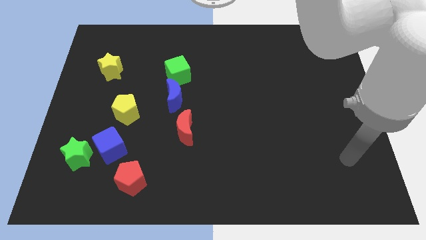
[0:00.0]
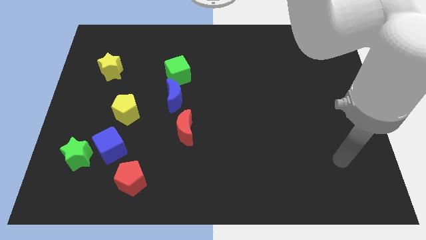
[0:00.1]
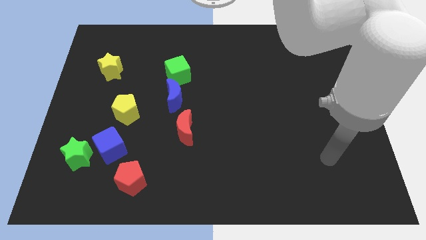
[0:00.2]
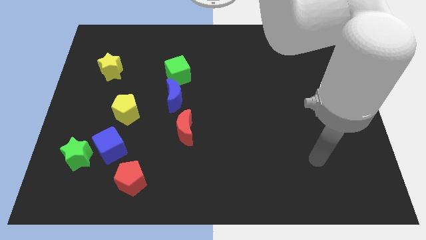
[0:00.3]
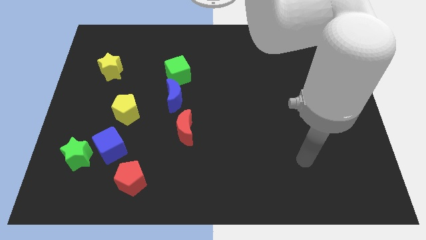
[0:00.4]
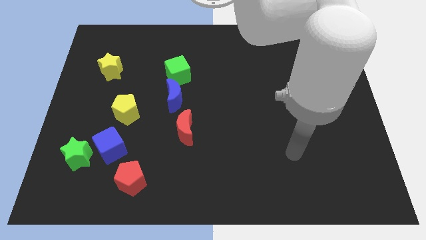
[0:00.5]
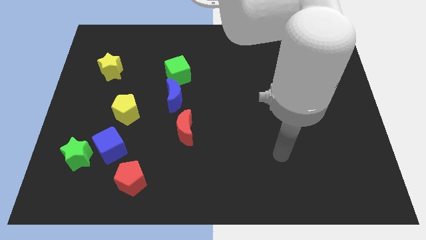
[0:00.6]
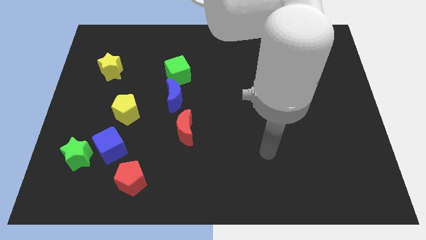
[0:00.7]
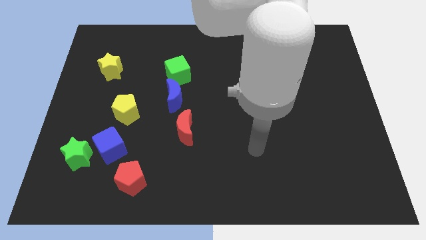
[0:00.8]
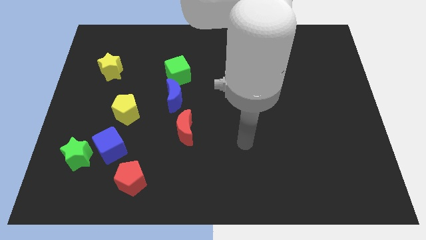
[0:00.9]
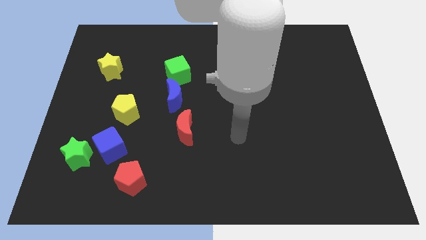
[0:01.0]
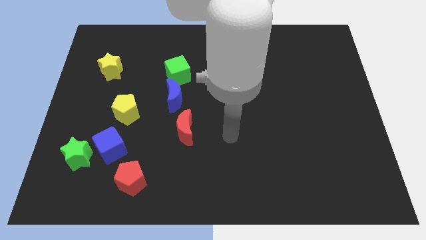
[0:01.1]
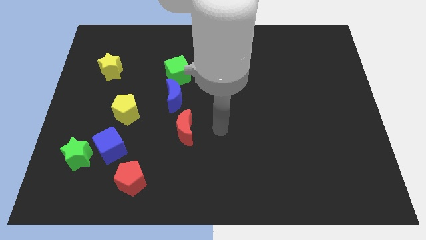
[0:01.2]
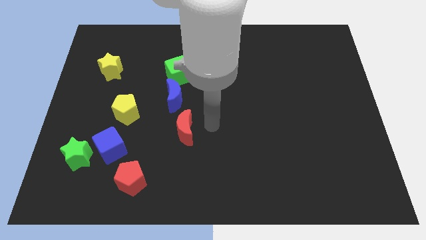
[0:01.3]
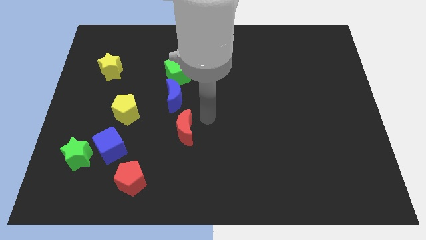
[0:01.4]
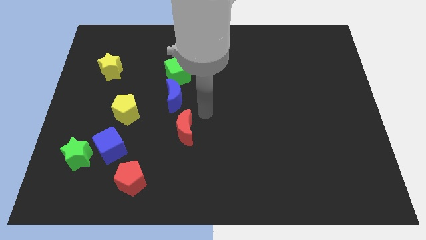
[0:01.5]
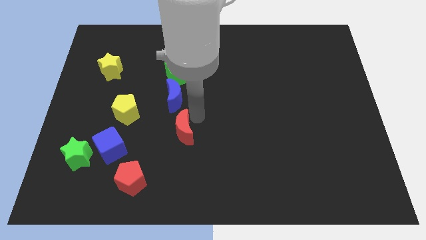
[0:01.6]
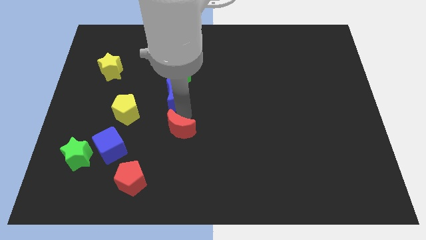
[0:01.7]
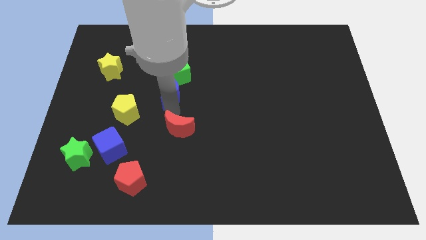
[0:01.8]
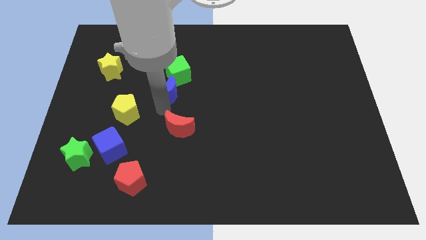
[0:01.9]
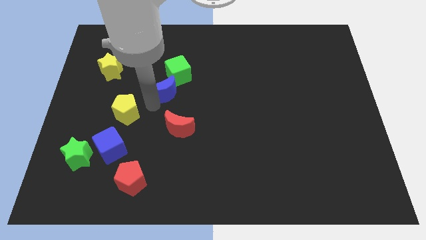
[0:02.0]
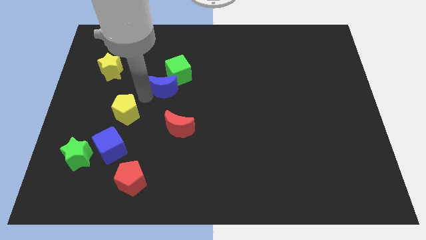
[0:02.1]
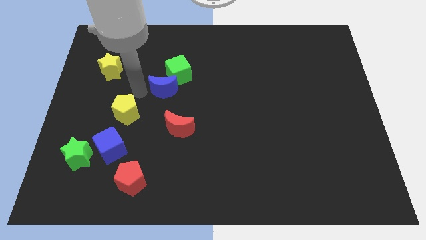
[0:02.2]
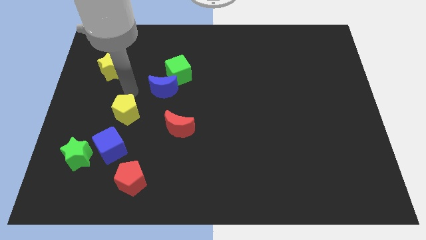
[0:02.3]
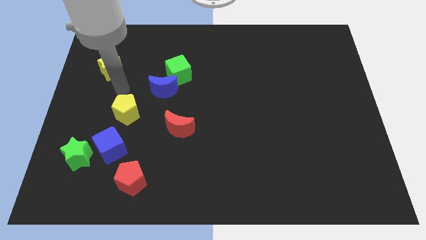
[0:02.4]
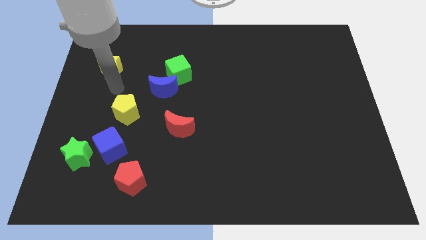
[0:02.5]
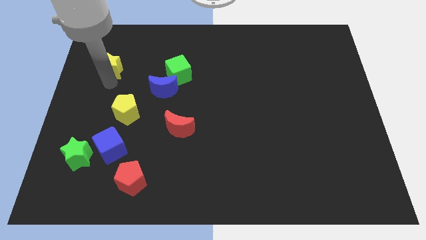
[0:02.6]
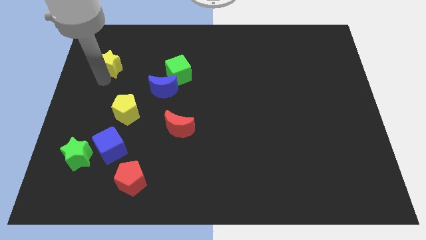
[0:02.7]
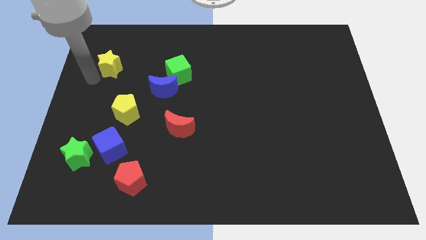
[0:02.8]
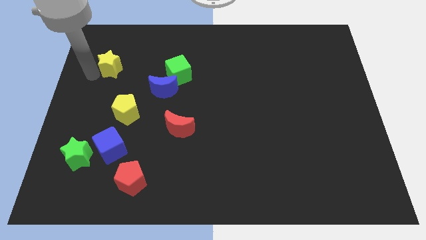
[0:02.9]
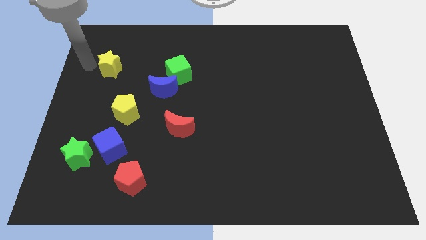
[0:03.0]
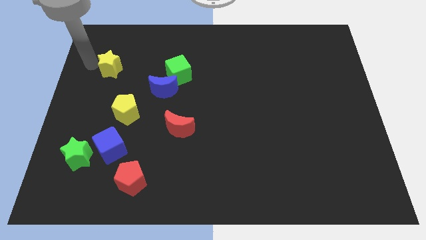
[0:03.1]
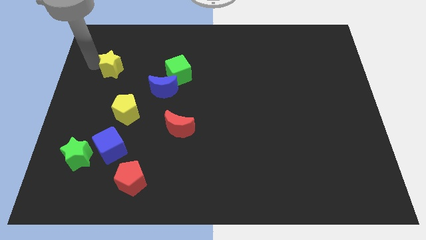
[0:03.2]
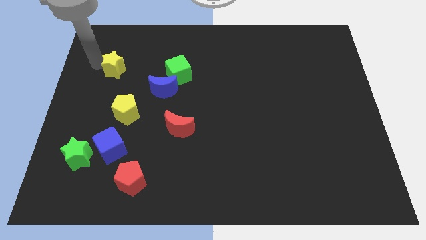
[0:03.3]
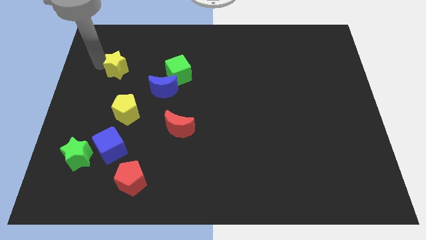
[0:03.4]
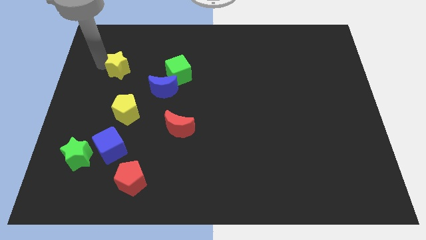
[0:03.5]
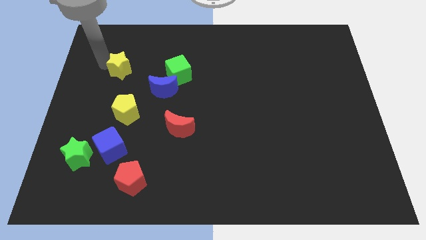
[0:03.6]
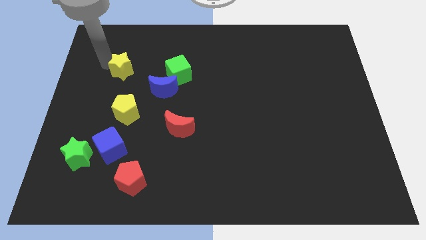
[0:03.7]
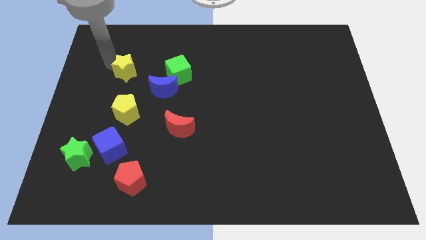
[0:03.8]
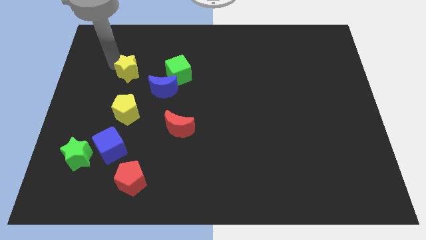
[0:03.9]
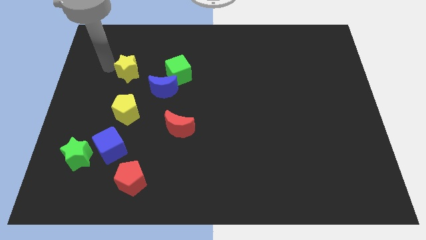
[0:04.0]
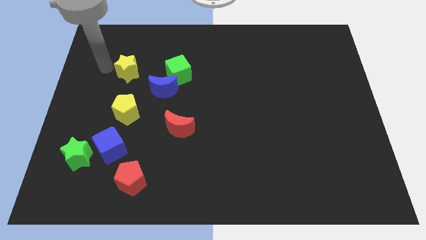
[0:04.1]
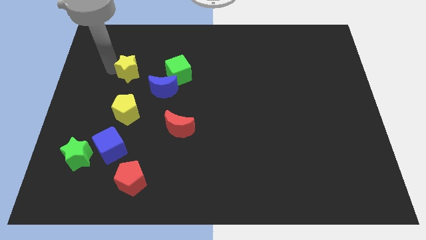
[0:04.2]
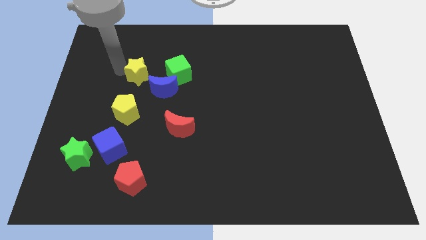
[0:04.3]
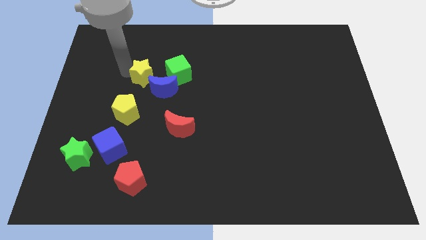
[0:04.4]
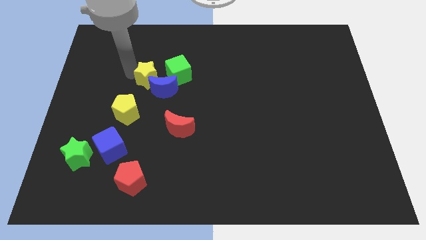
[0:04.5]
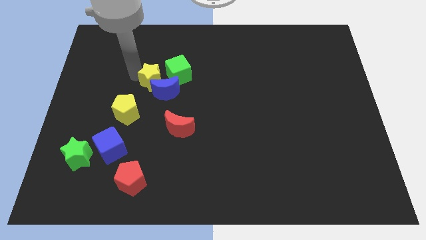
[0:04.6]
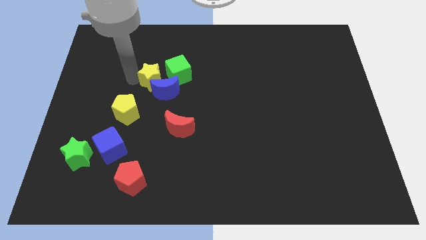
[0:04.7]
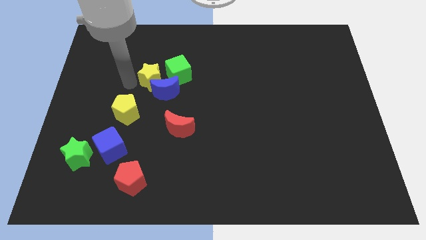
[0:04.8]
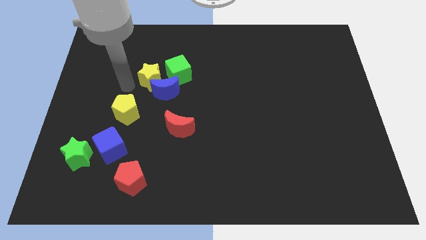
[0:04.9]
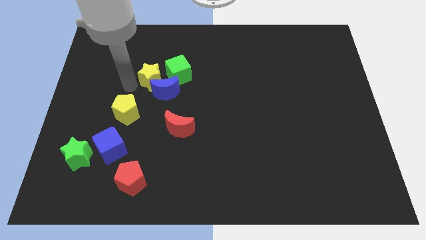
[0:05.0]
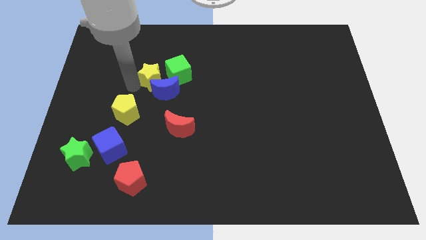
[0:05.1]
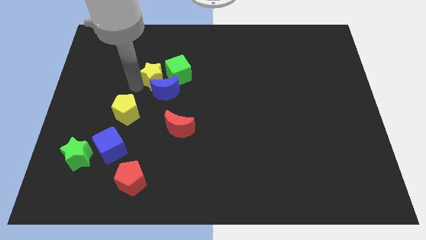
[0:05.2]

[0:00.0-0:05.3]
put the yellow star close to the green cube

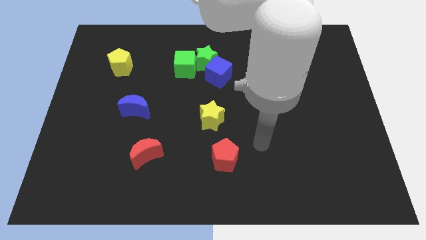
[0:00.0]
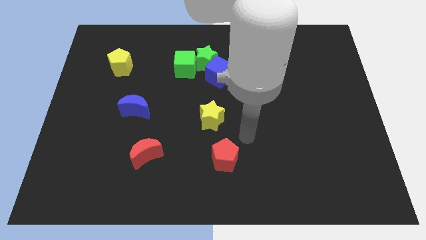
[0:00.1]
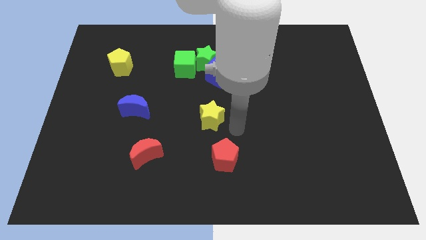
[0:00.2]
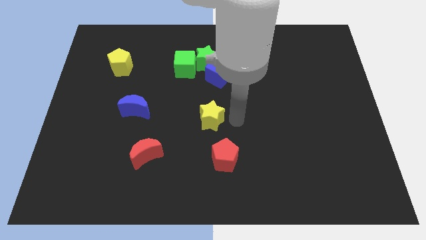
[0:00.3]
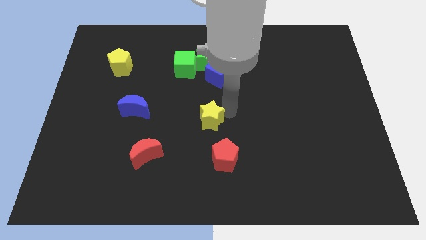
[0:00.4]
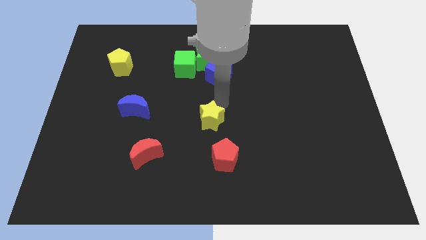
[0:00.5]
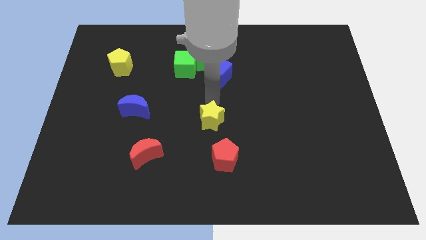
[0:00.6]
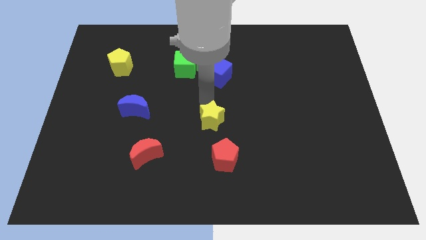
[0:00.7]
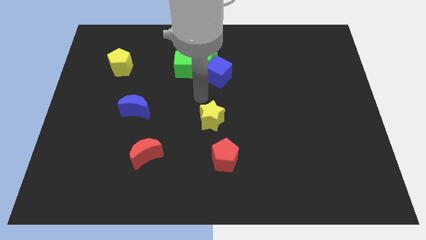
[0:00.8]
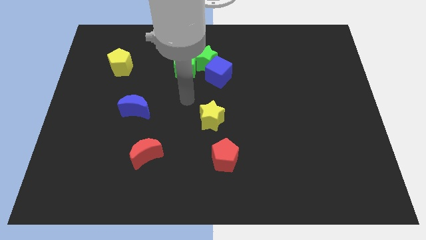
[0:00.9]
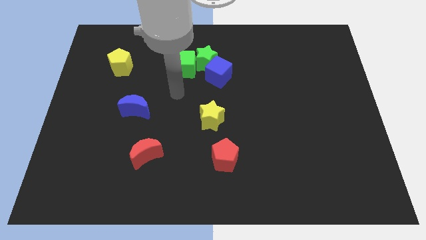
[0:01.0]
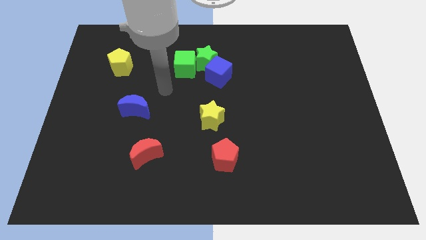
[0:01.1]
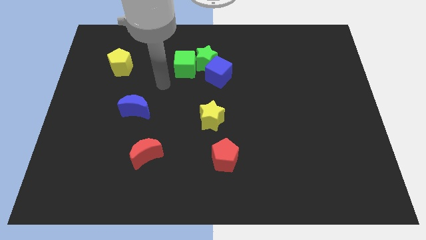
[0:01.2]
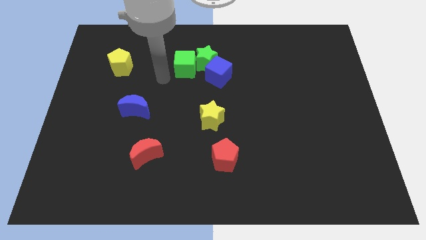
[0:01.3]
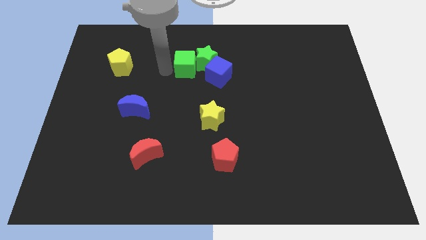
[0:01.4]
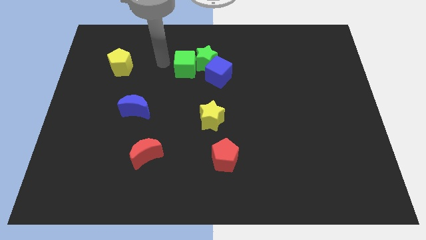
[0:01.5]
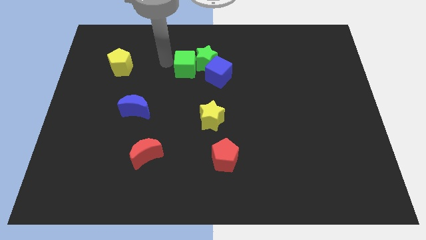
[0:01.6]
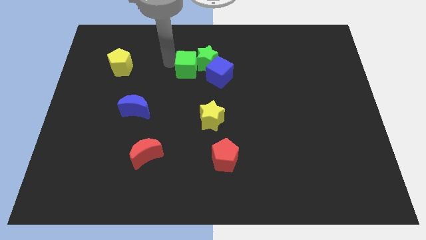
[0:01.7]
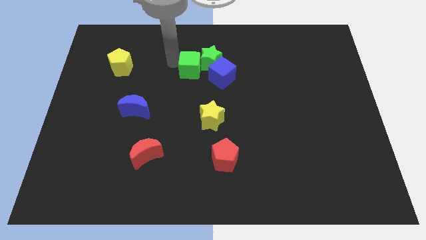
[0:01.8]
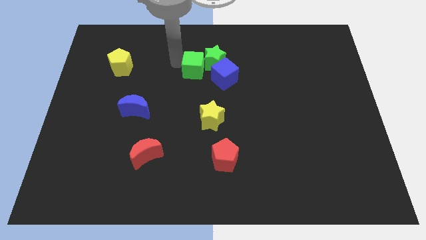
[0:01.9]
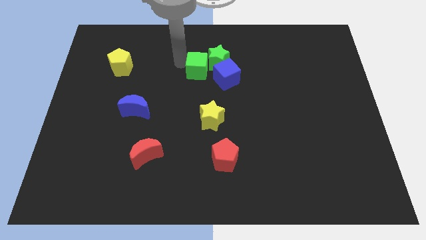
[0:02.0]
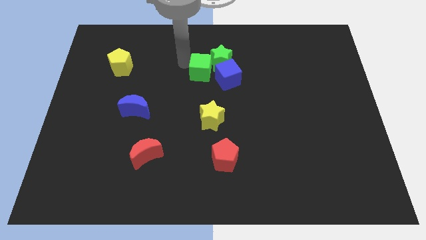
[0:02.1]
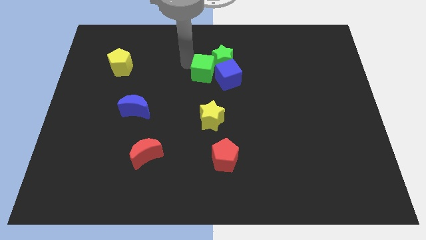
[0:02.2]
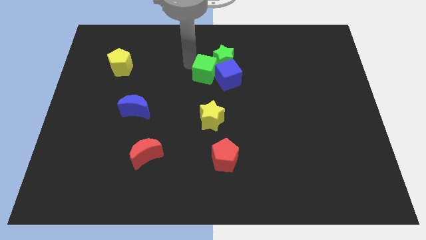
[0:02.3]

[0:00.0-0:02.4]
move the green cube to the blue cube

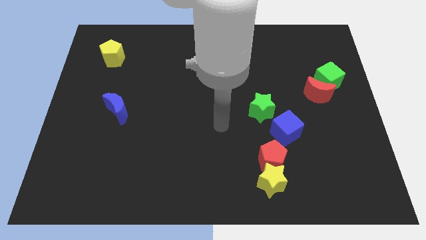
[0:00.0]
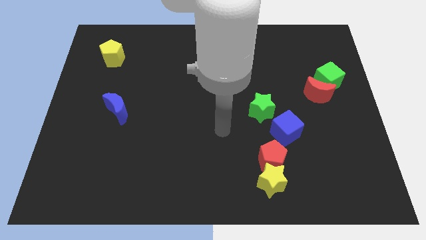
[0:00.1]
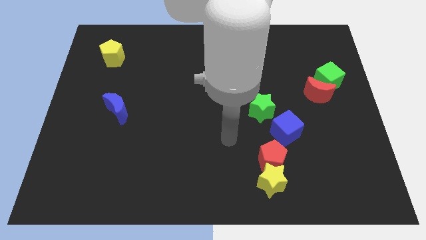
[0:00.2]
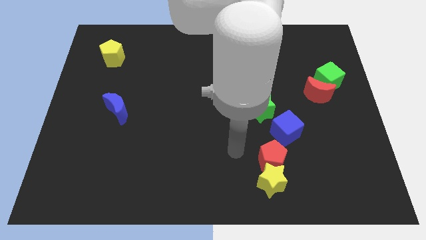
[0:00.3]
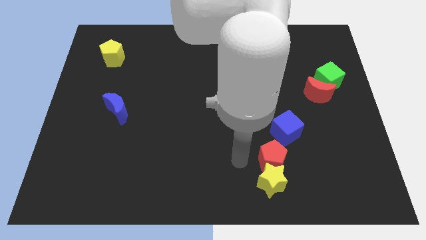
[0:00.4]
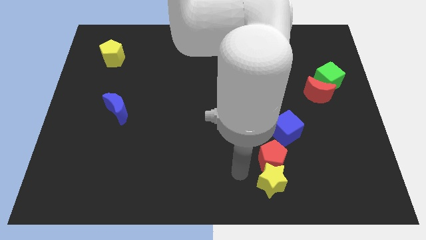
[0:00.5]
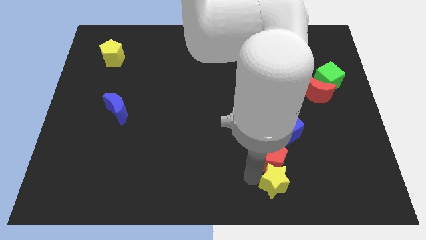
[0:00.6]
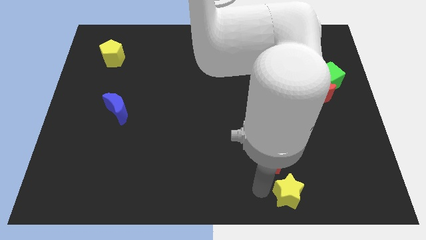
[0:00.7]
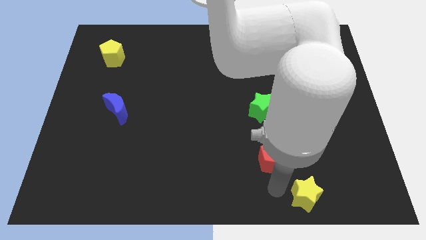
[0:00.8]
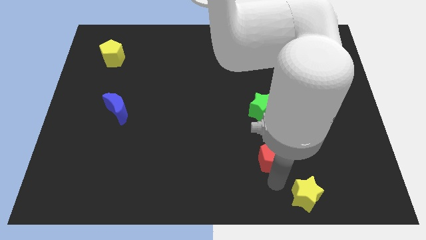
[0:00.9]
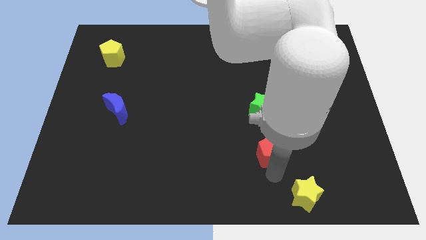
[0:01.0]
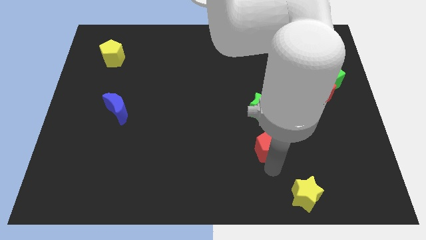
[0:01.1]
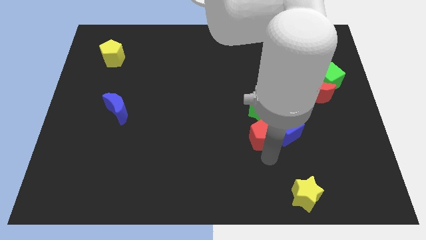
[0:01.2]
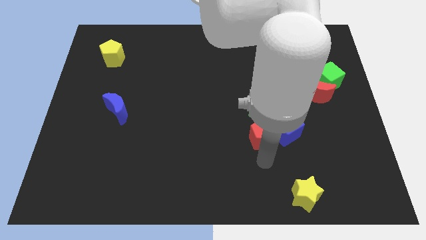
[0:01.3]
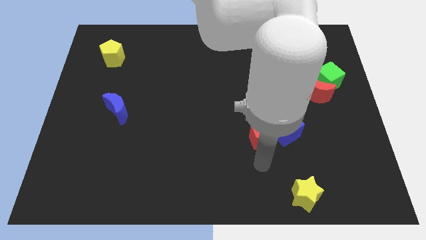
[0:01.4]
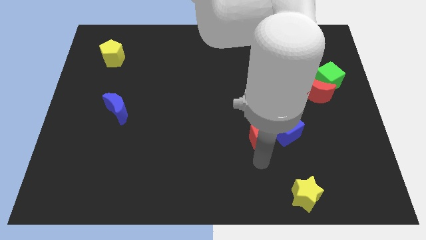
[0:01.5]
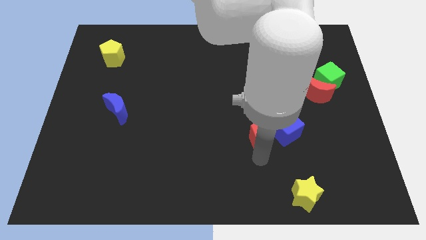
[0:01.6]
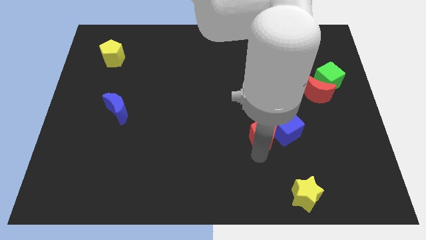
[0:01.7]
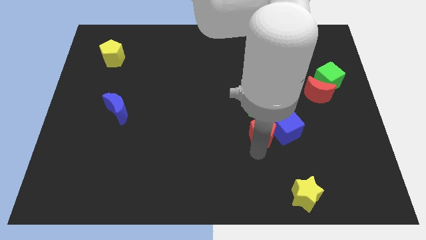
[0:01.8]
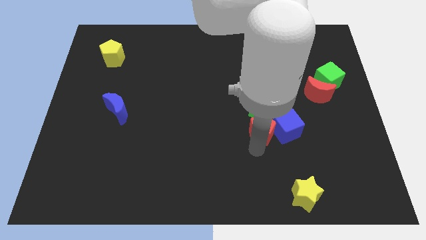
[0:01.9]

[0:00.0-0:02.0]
put the red pentagon towards the green star
